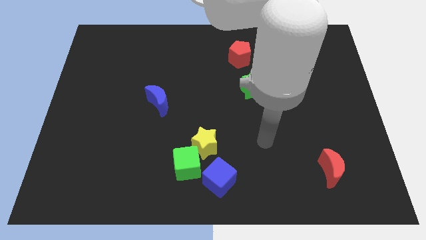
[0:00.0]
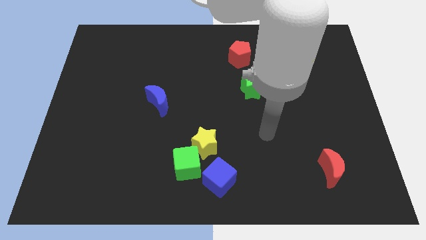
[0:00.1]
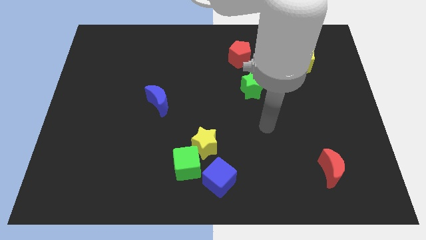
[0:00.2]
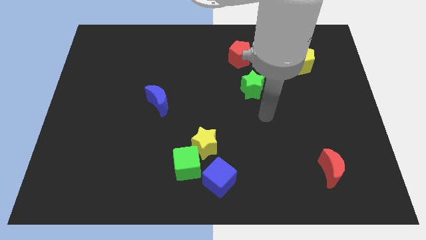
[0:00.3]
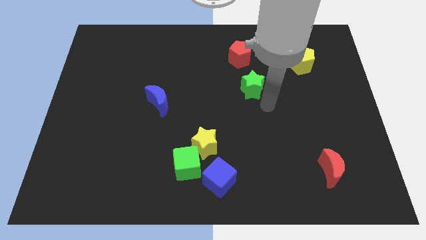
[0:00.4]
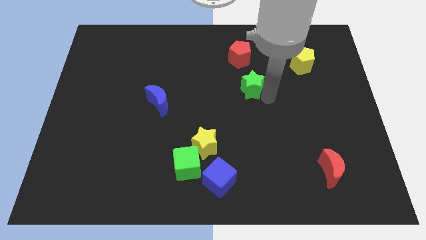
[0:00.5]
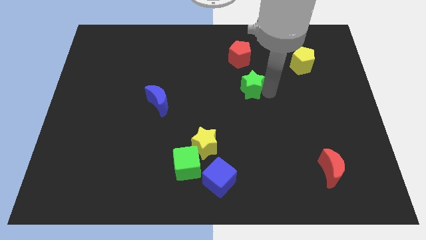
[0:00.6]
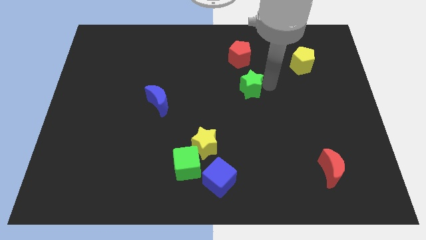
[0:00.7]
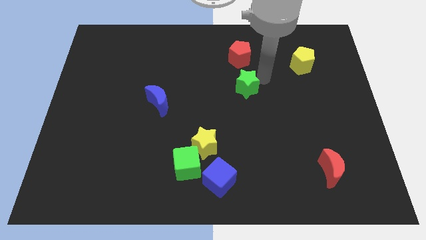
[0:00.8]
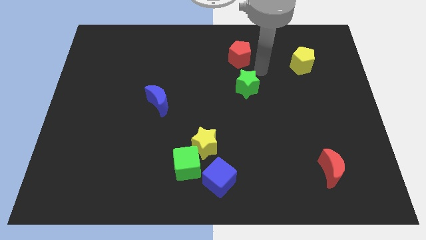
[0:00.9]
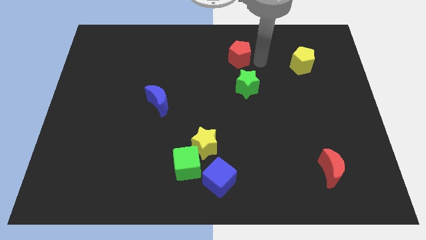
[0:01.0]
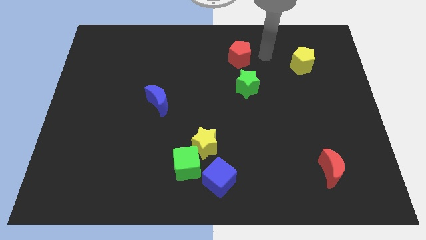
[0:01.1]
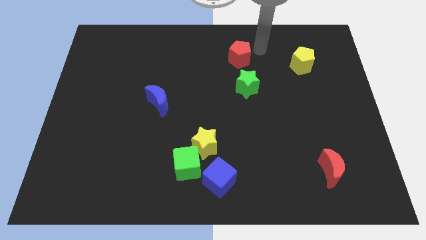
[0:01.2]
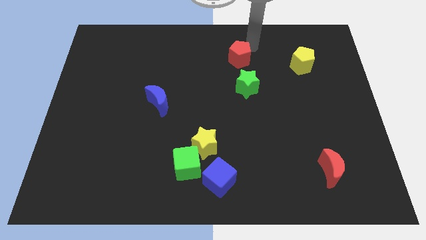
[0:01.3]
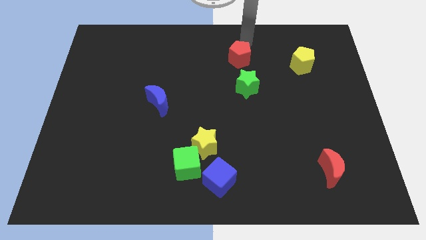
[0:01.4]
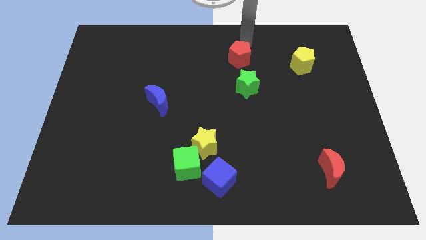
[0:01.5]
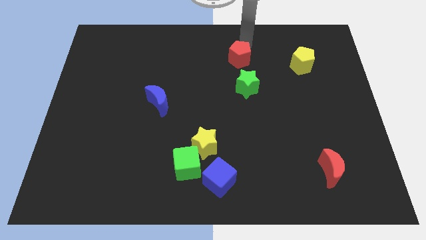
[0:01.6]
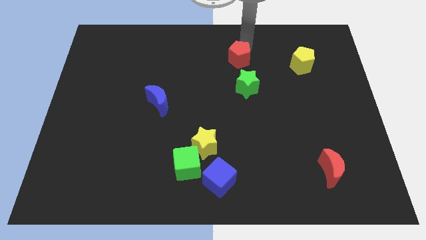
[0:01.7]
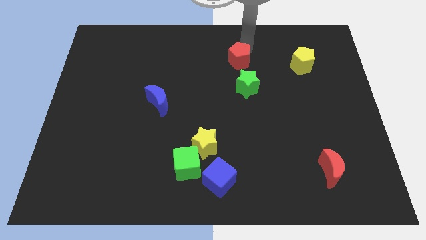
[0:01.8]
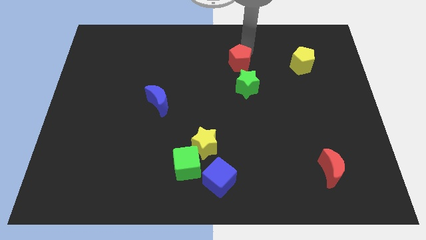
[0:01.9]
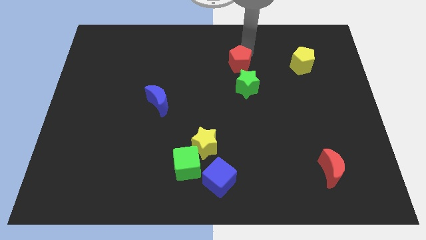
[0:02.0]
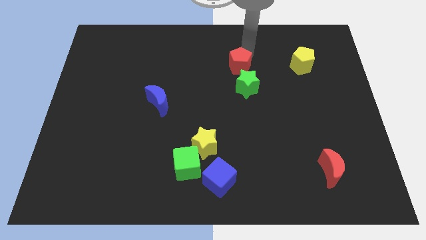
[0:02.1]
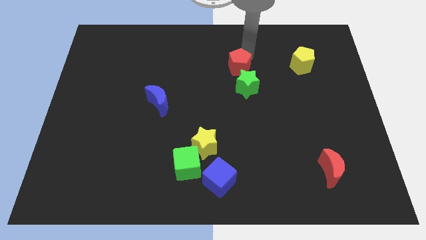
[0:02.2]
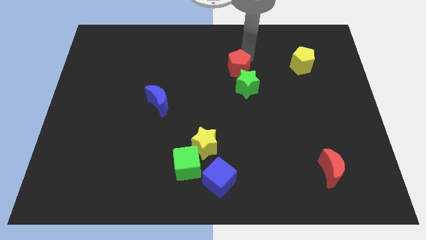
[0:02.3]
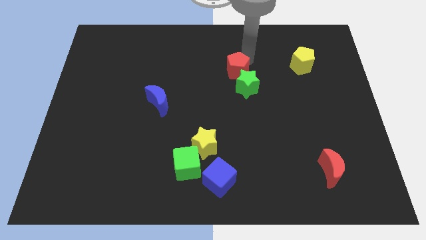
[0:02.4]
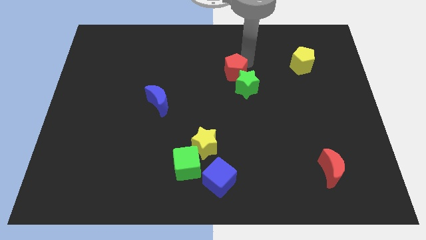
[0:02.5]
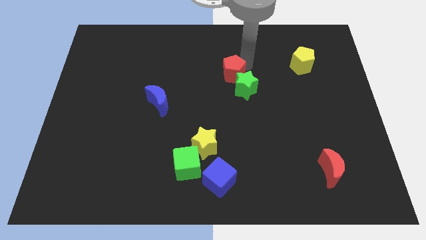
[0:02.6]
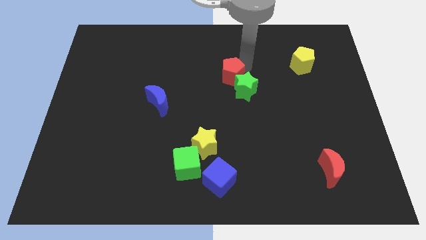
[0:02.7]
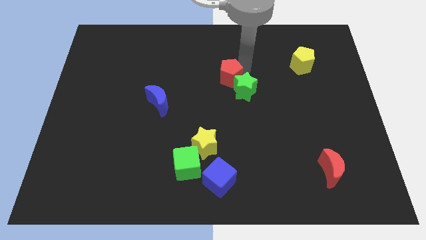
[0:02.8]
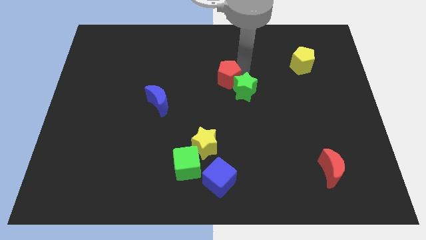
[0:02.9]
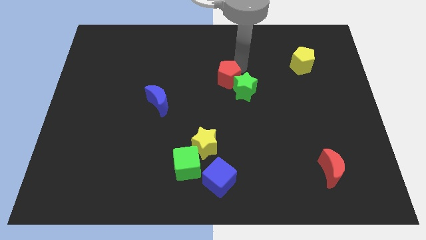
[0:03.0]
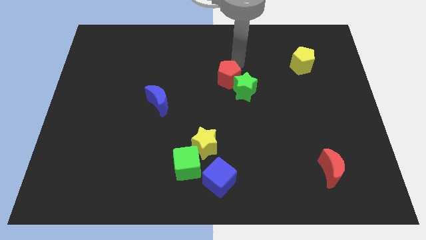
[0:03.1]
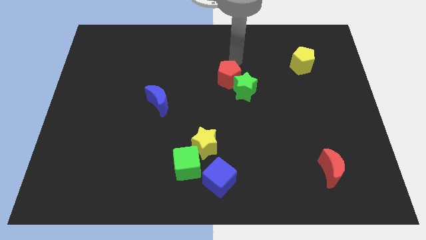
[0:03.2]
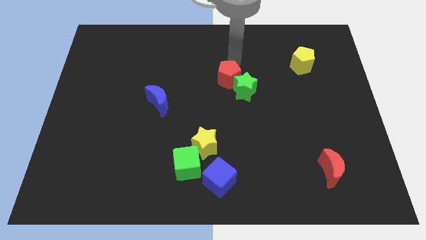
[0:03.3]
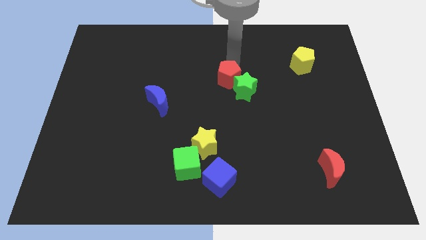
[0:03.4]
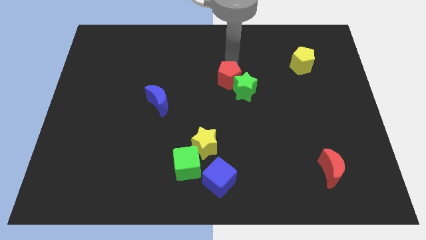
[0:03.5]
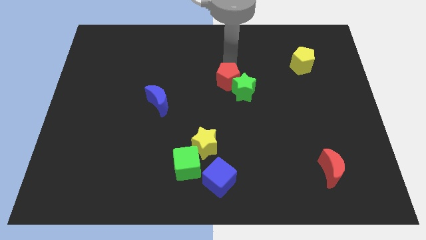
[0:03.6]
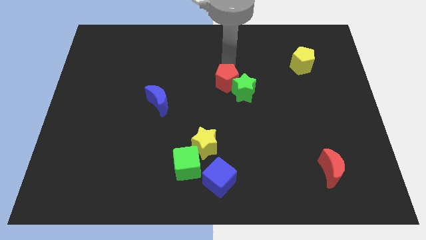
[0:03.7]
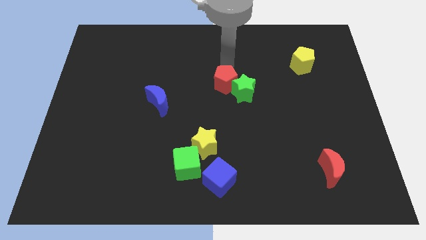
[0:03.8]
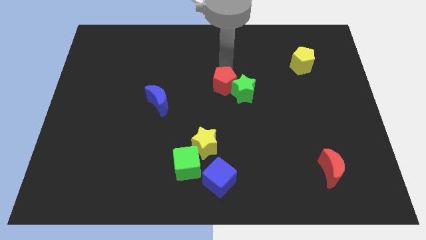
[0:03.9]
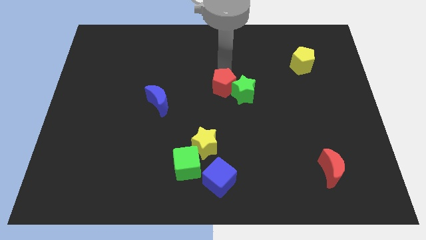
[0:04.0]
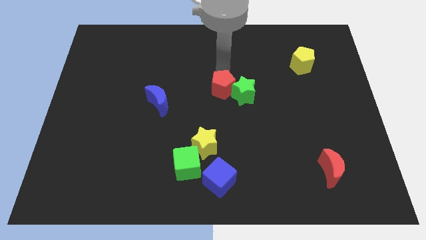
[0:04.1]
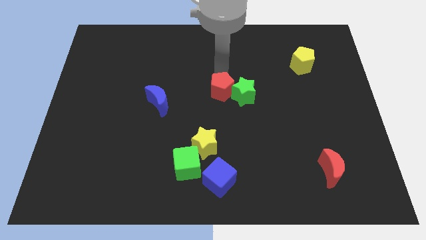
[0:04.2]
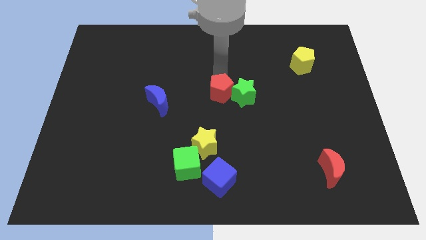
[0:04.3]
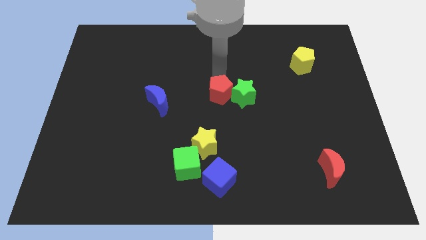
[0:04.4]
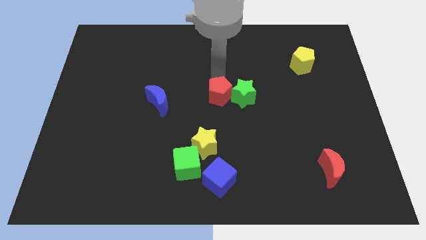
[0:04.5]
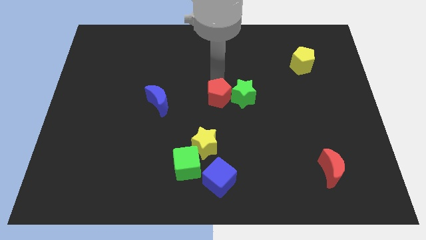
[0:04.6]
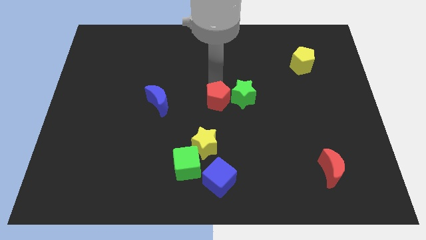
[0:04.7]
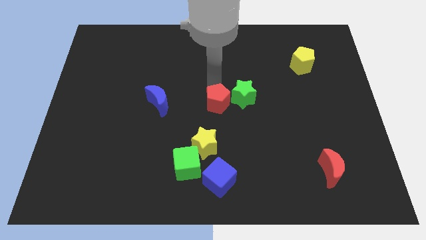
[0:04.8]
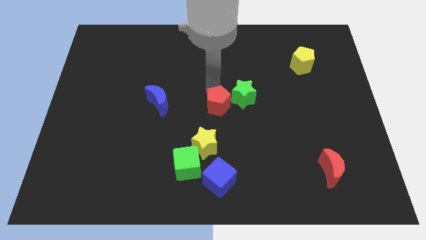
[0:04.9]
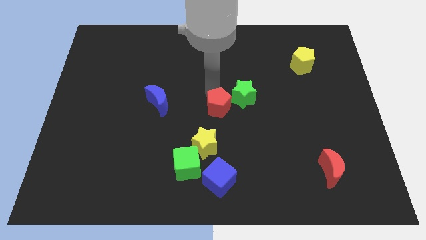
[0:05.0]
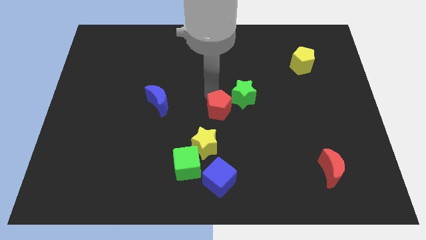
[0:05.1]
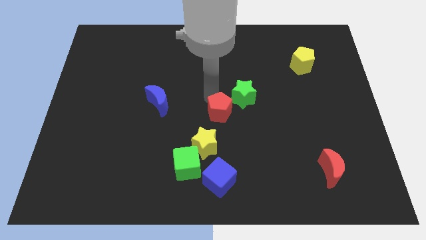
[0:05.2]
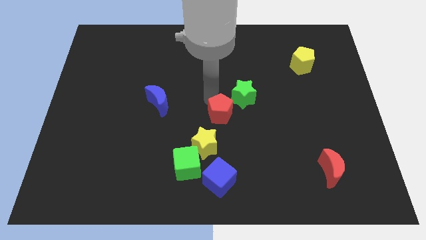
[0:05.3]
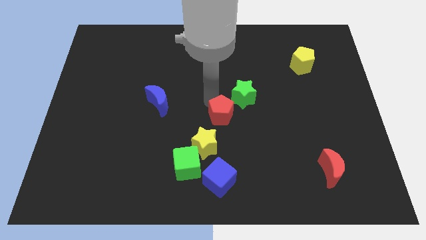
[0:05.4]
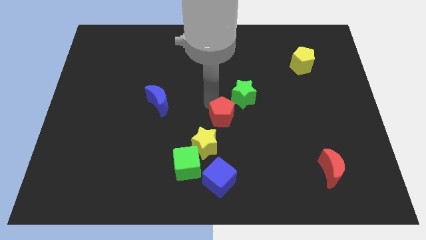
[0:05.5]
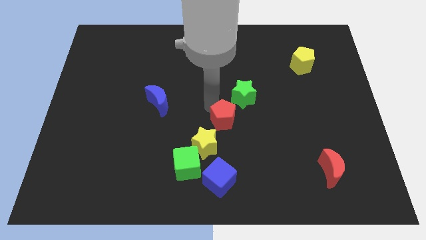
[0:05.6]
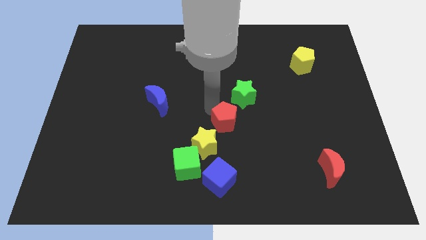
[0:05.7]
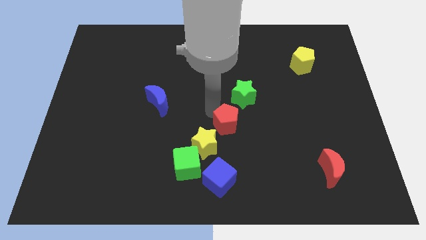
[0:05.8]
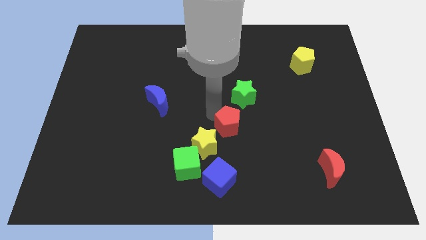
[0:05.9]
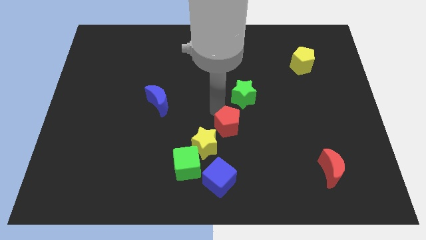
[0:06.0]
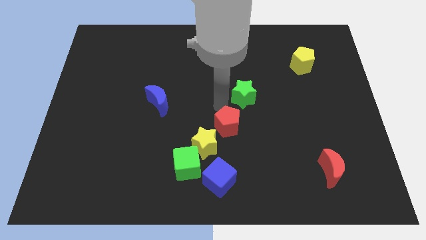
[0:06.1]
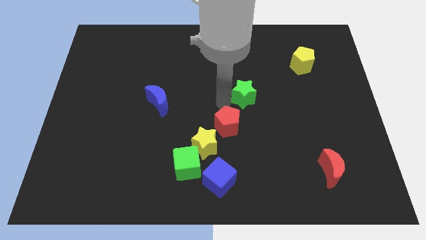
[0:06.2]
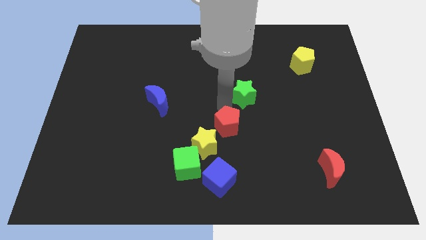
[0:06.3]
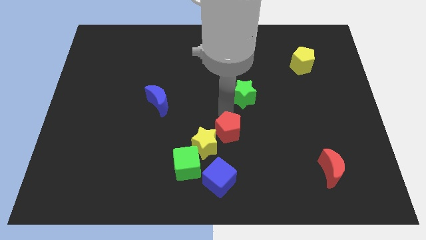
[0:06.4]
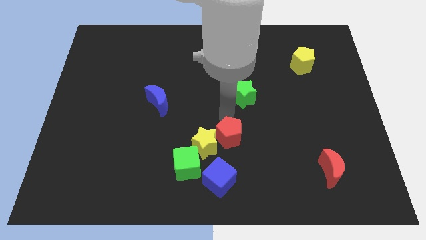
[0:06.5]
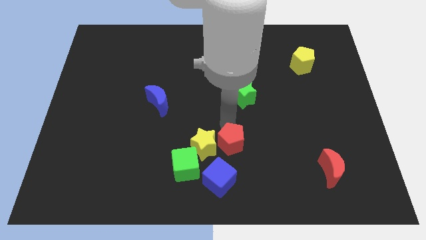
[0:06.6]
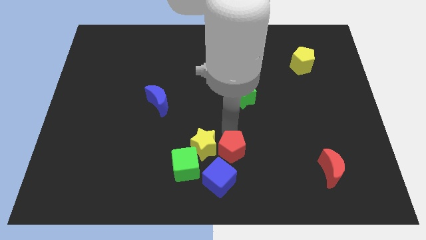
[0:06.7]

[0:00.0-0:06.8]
slide the red pentagon to the right side of the green cube

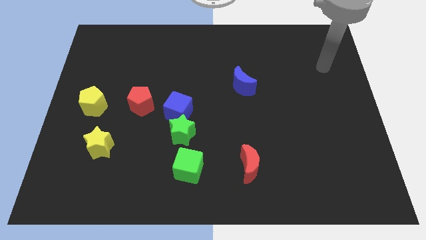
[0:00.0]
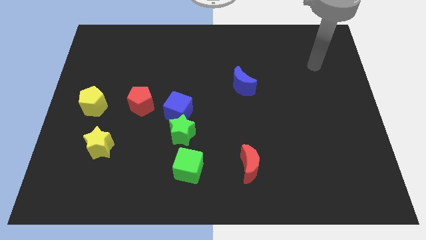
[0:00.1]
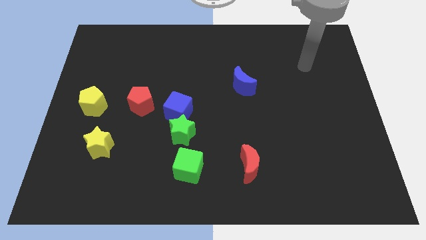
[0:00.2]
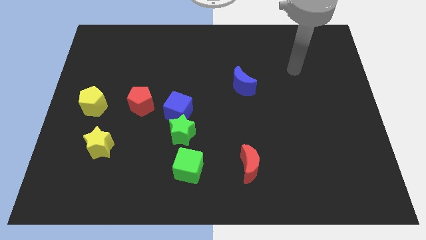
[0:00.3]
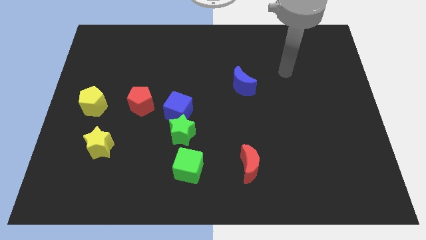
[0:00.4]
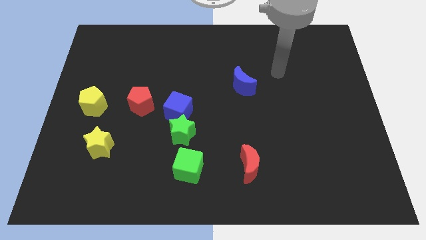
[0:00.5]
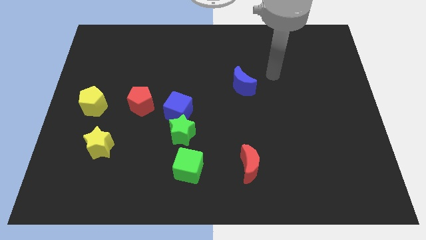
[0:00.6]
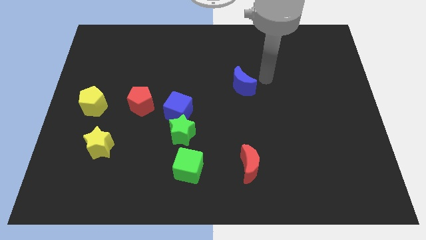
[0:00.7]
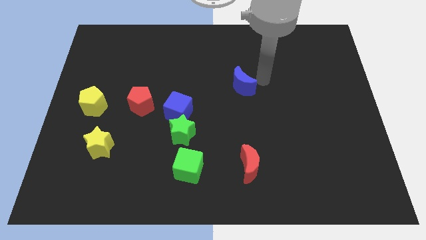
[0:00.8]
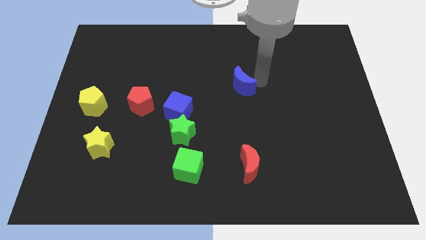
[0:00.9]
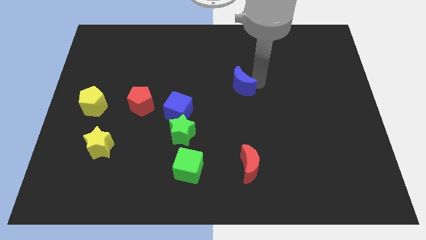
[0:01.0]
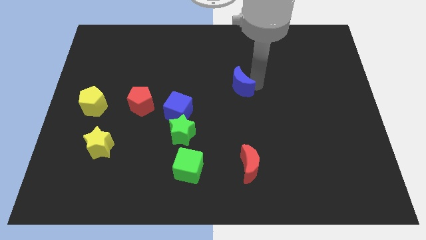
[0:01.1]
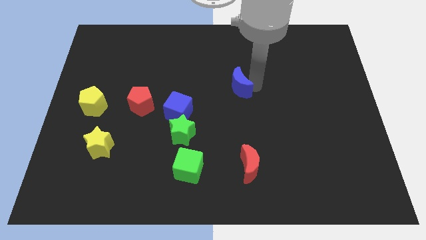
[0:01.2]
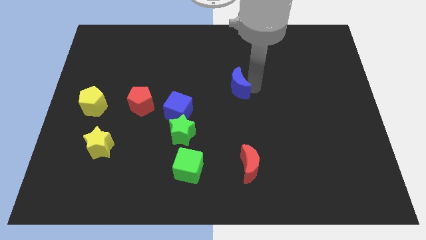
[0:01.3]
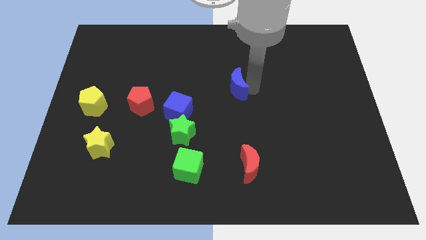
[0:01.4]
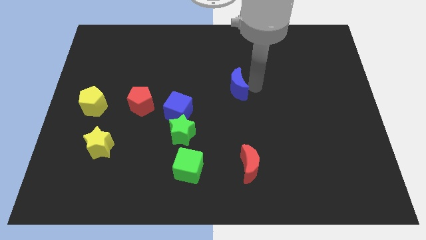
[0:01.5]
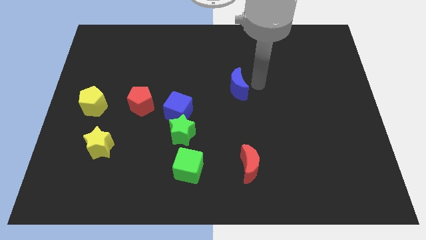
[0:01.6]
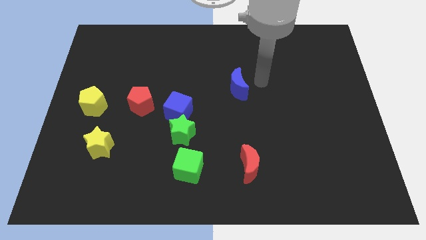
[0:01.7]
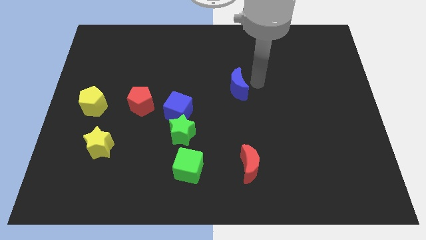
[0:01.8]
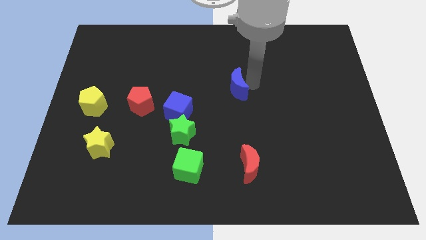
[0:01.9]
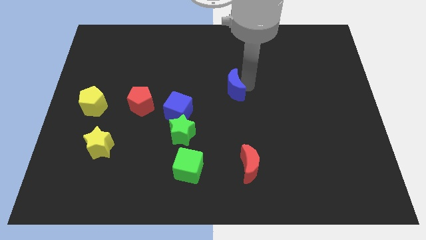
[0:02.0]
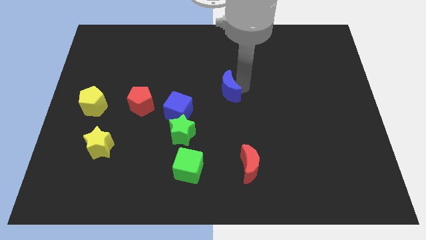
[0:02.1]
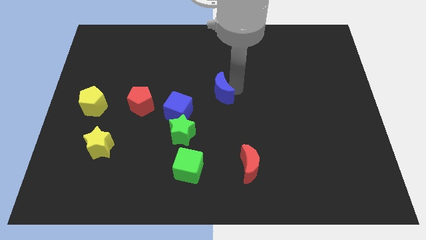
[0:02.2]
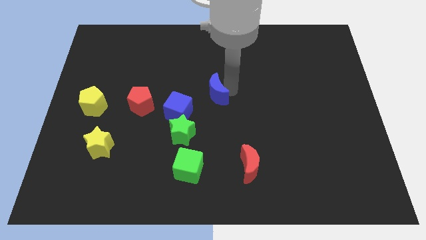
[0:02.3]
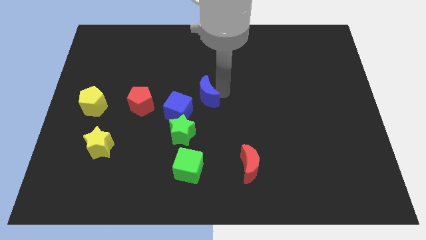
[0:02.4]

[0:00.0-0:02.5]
slide the blue moon to the right side of the red pentagon
